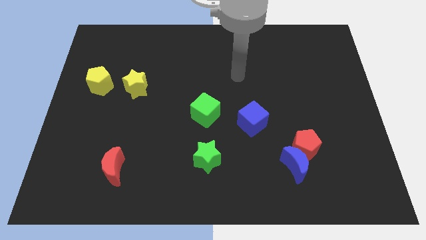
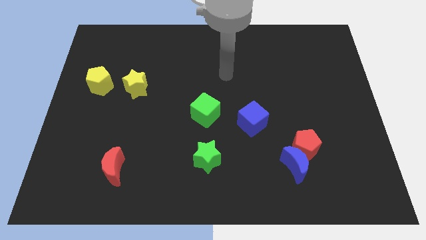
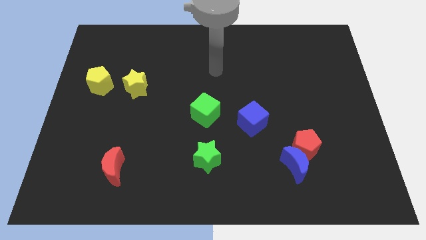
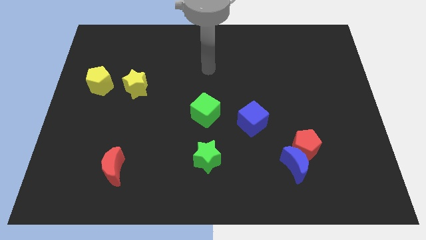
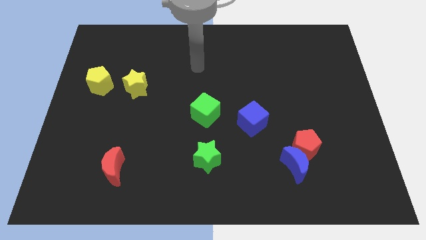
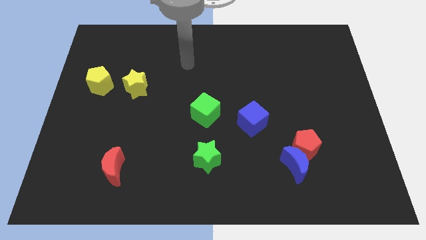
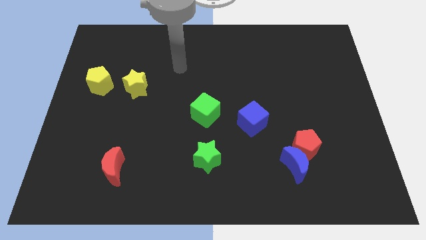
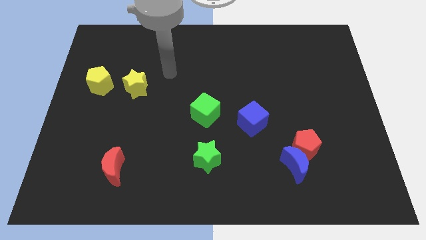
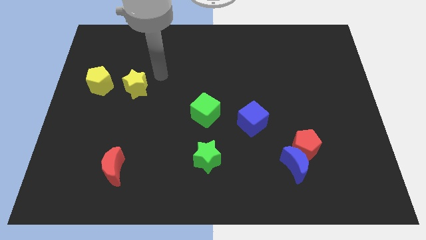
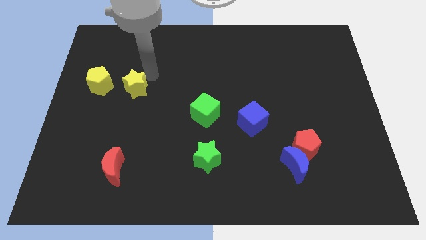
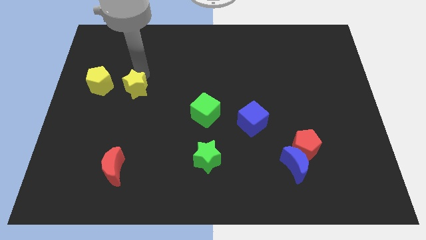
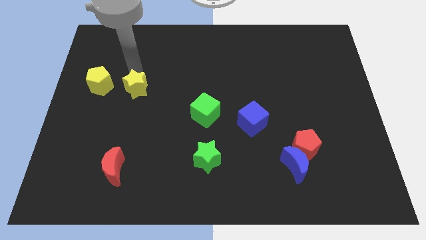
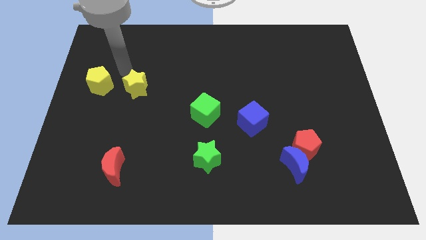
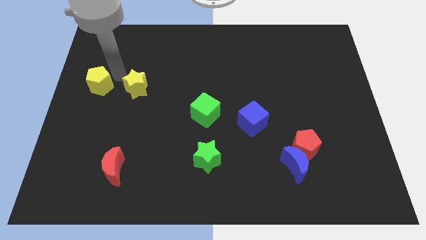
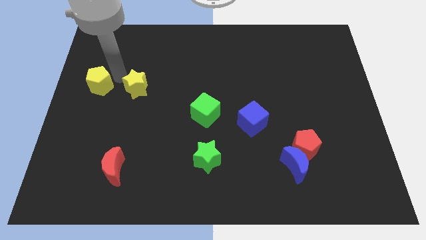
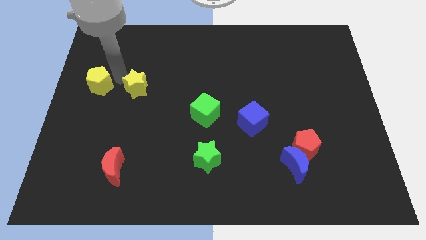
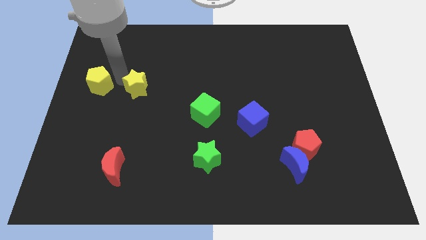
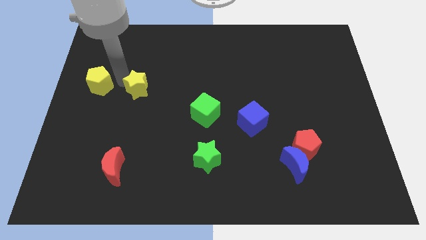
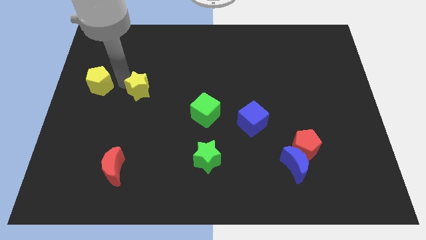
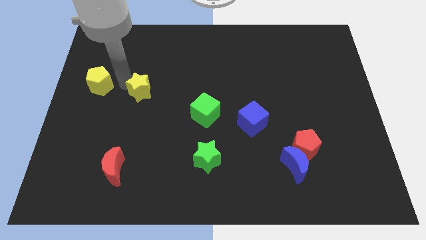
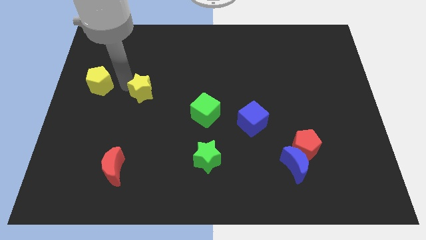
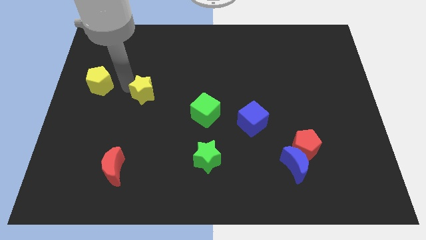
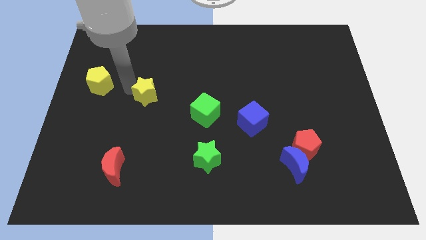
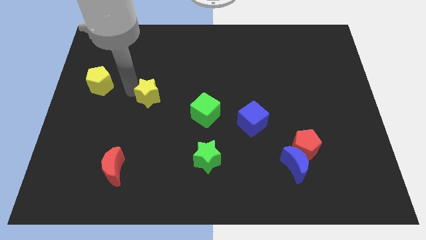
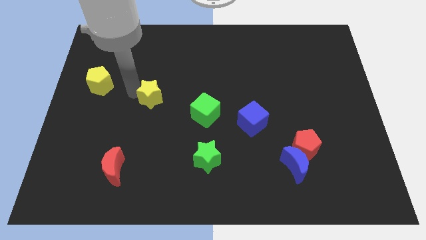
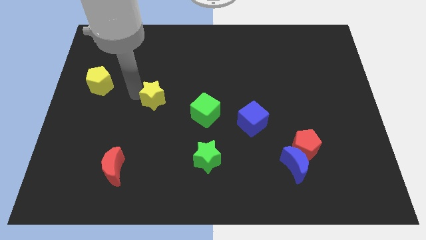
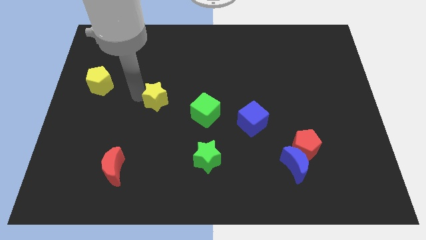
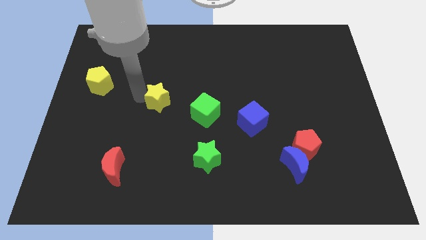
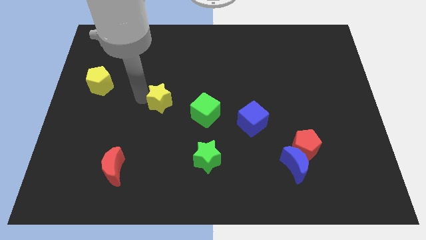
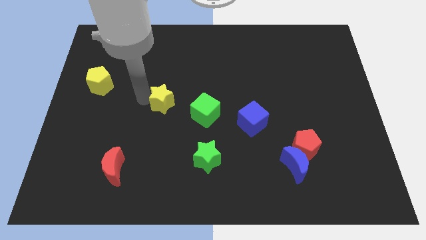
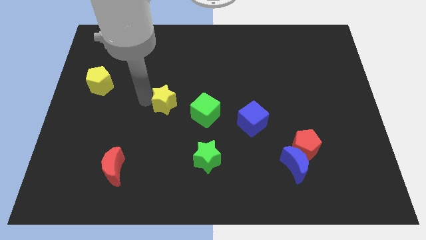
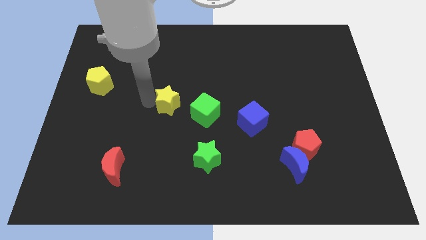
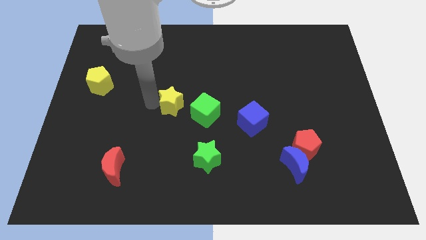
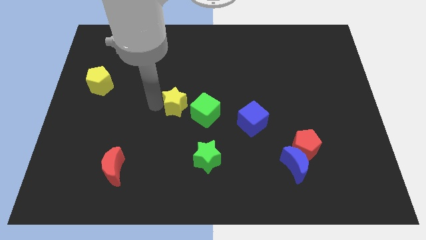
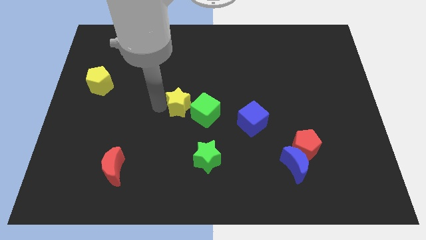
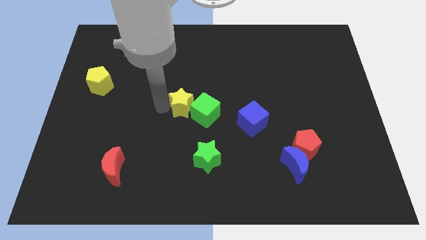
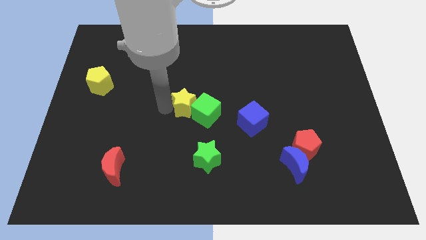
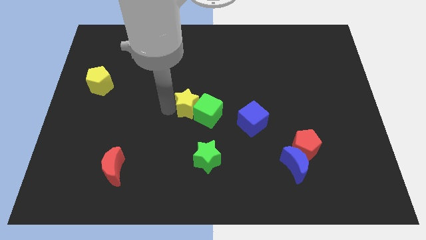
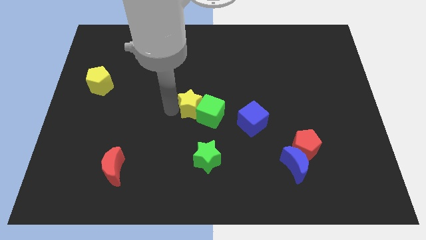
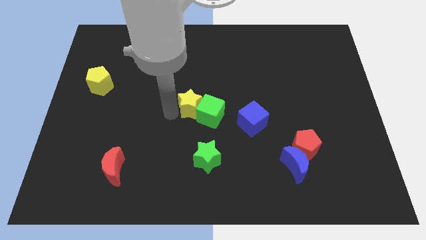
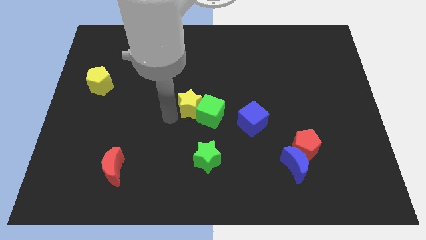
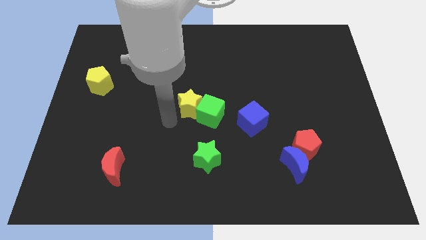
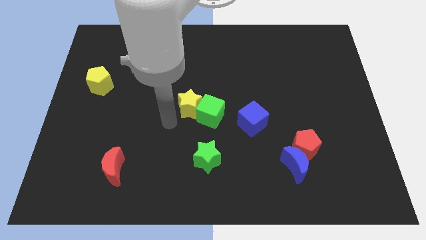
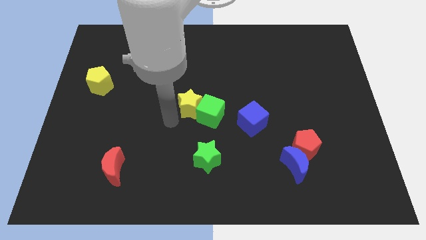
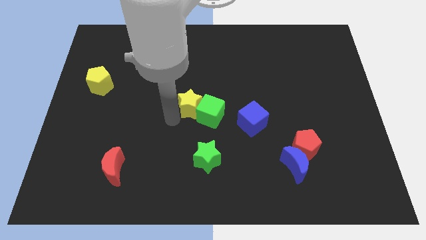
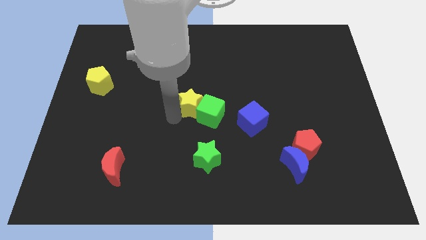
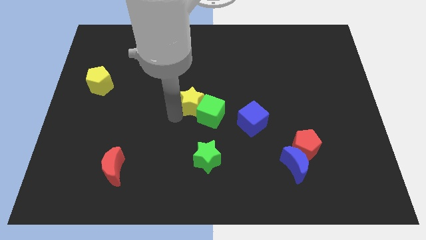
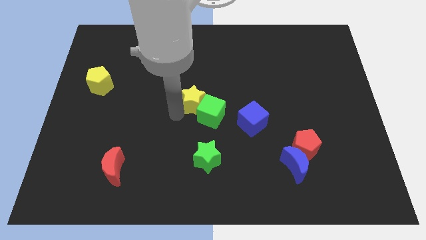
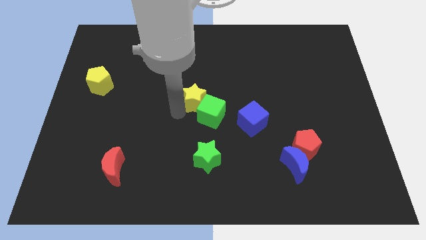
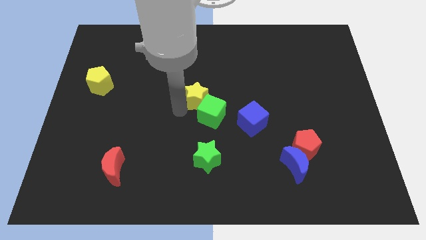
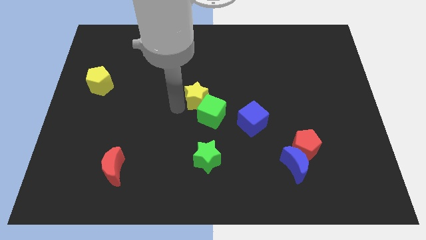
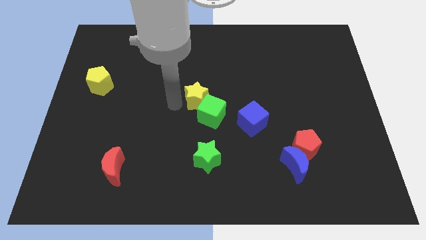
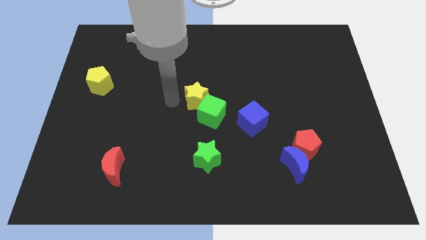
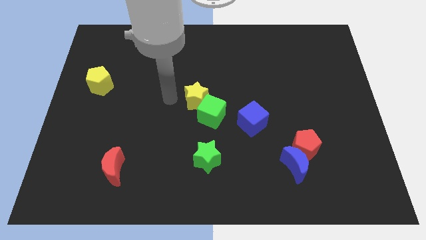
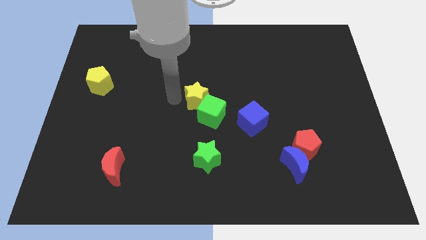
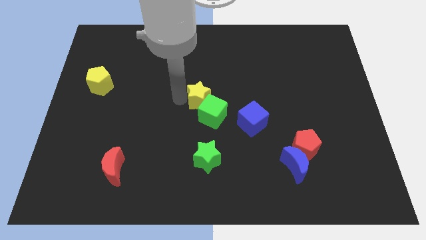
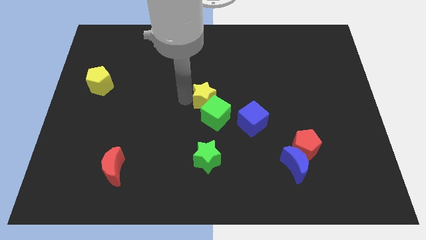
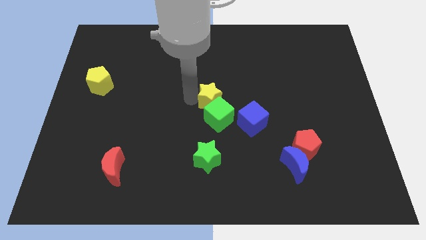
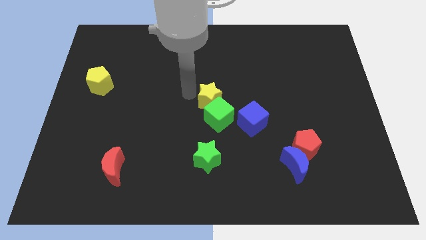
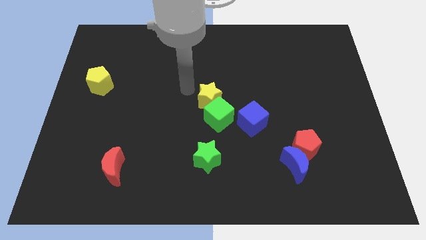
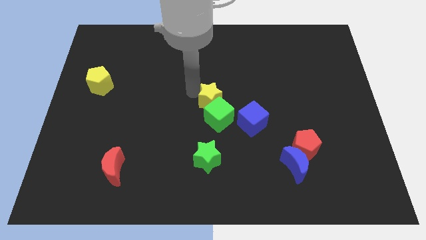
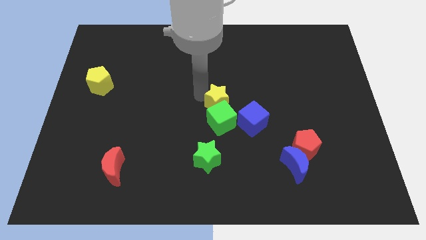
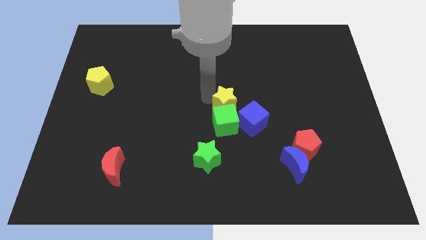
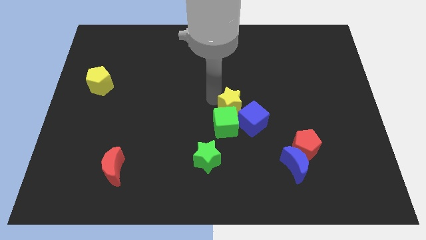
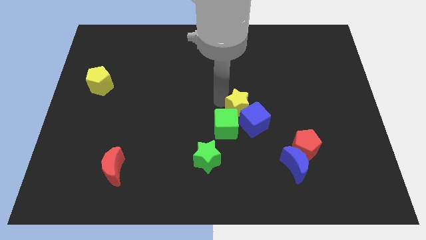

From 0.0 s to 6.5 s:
slide the yellow star close to the blue cube
